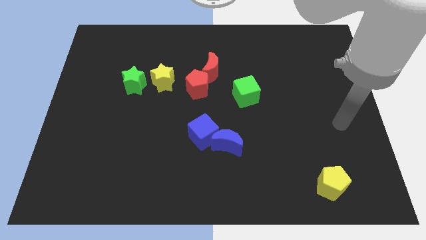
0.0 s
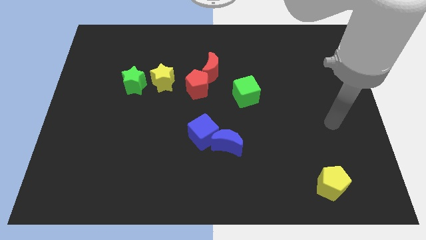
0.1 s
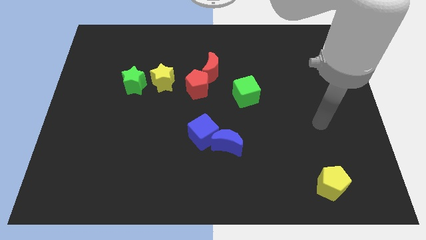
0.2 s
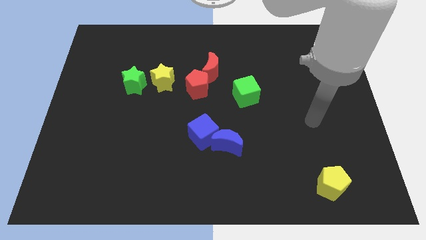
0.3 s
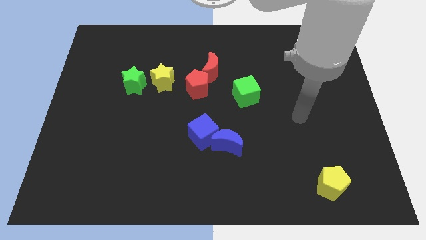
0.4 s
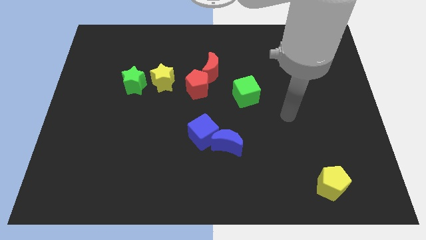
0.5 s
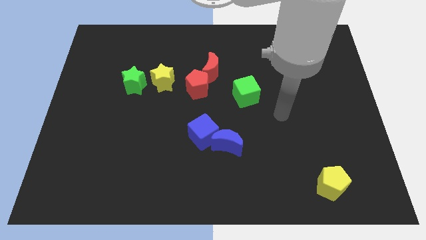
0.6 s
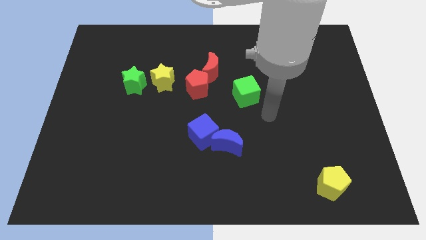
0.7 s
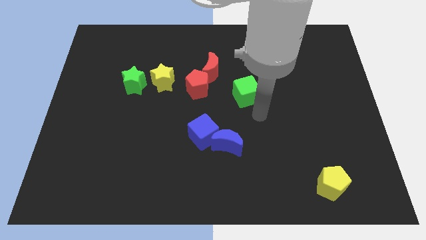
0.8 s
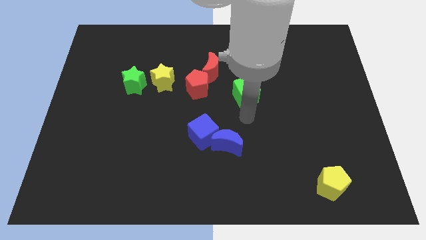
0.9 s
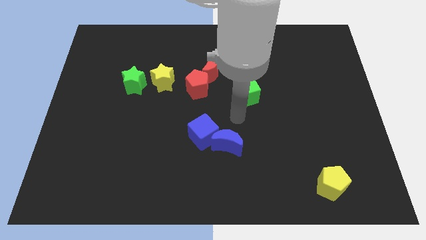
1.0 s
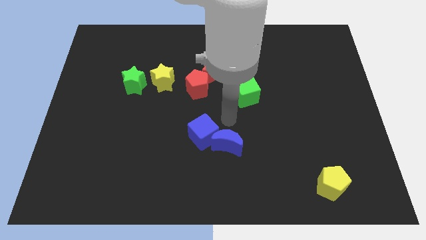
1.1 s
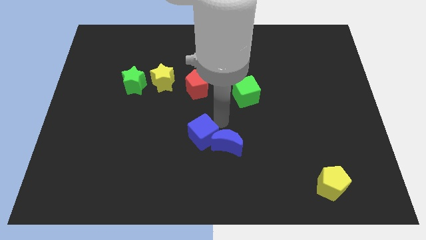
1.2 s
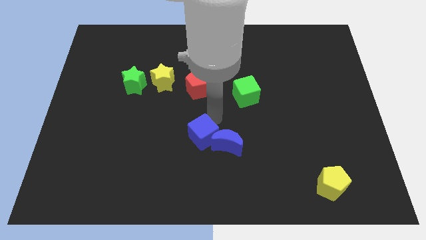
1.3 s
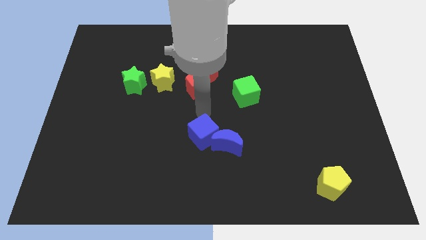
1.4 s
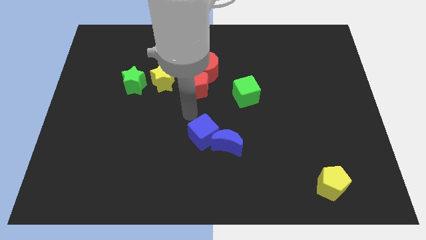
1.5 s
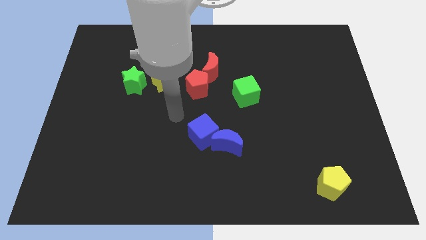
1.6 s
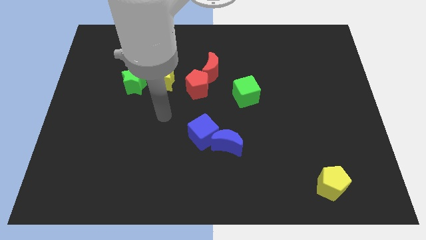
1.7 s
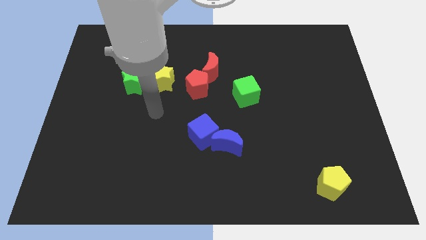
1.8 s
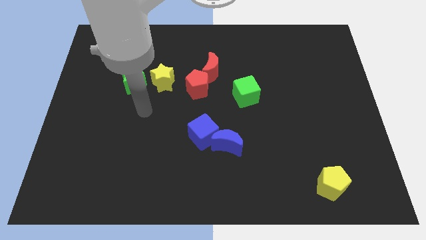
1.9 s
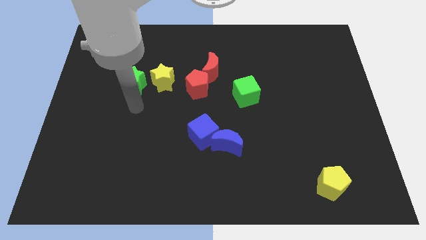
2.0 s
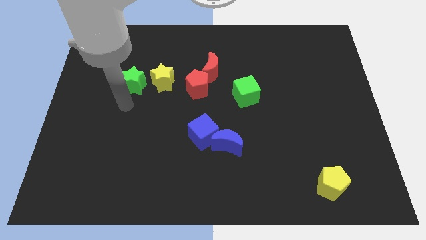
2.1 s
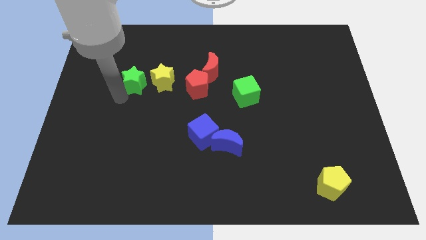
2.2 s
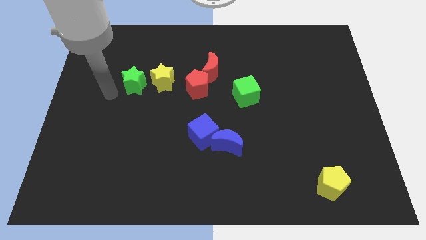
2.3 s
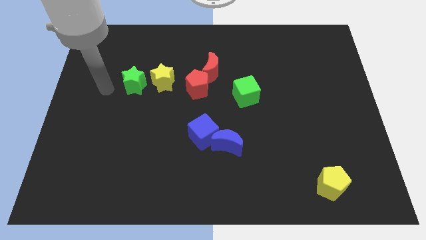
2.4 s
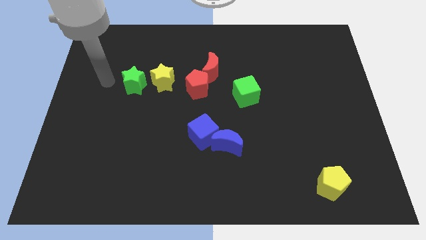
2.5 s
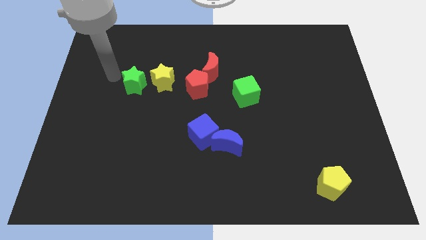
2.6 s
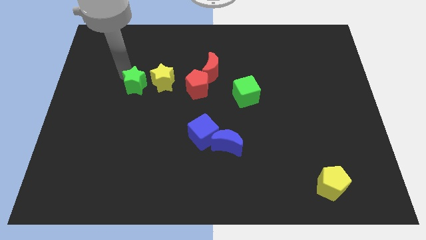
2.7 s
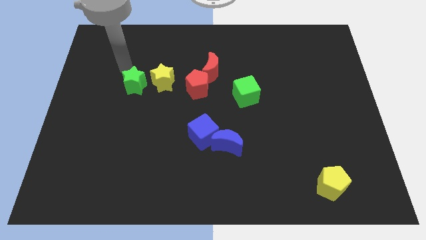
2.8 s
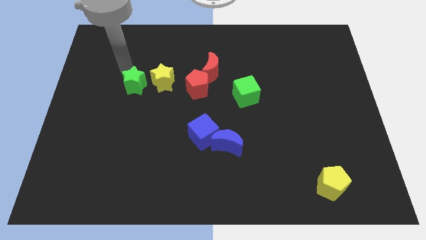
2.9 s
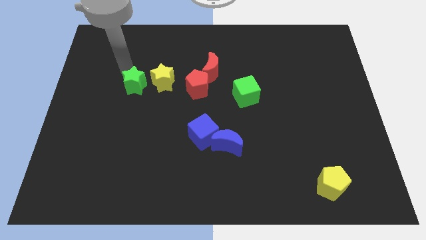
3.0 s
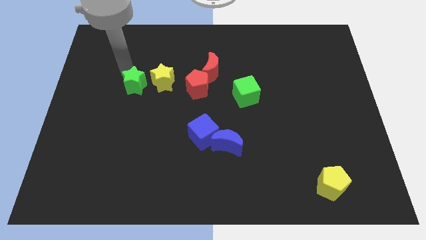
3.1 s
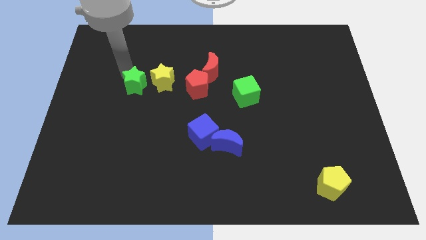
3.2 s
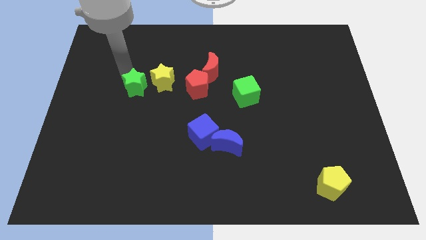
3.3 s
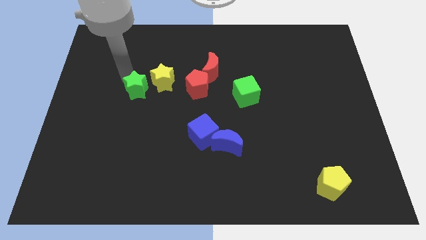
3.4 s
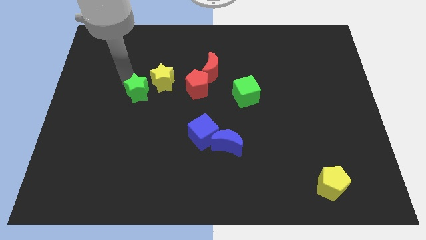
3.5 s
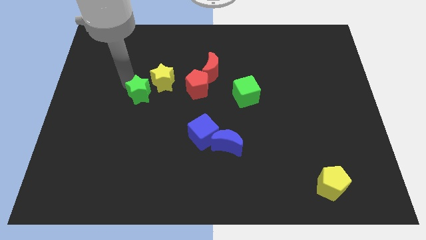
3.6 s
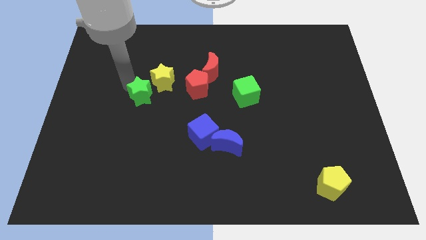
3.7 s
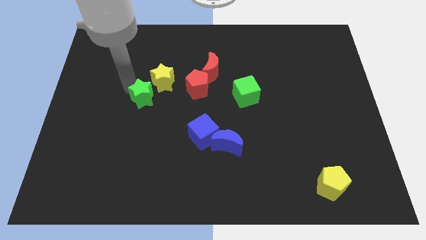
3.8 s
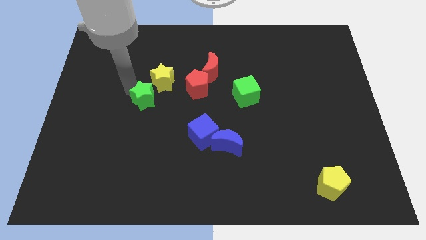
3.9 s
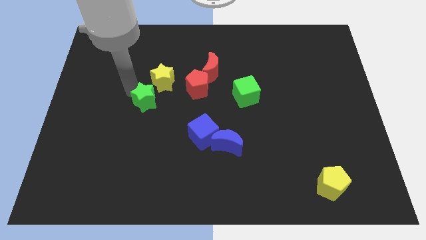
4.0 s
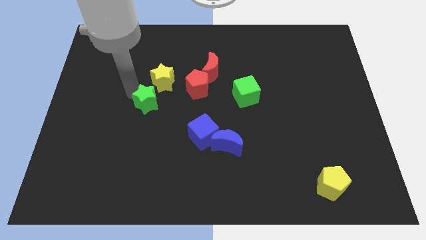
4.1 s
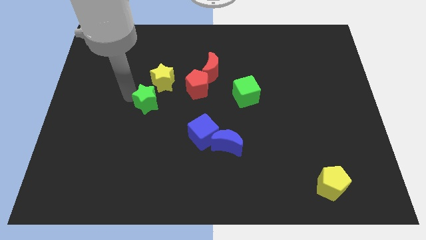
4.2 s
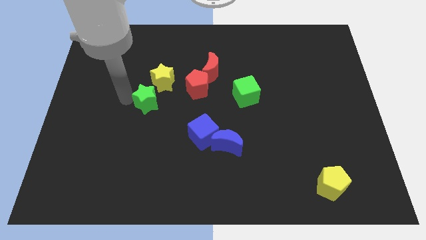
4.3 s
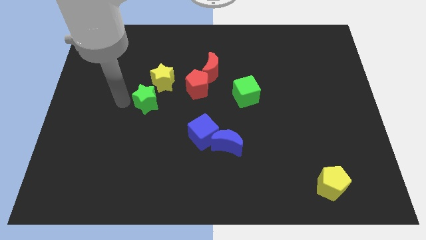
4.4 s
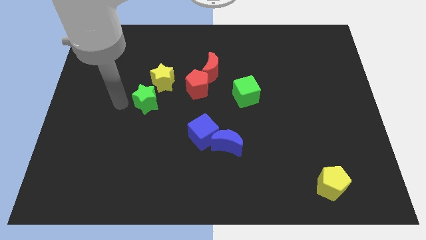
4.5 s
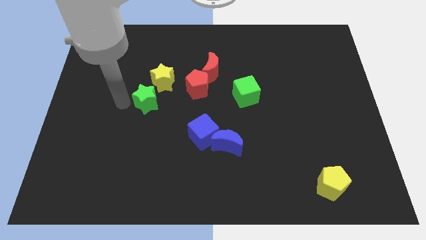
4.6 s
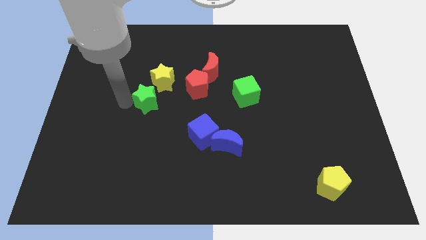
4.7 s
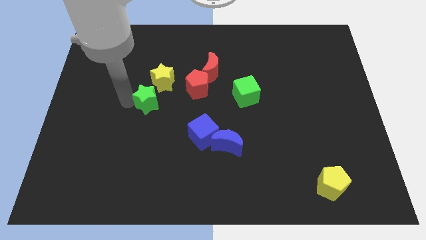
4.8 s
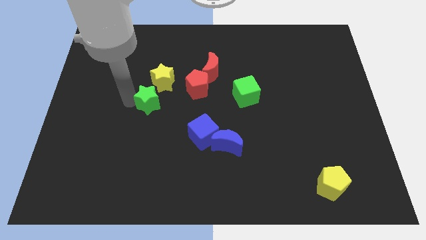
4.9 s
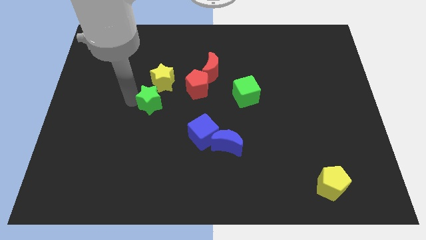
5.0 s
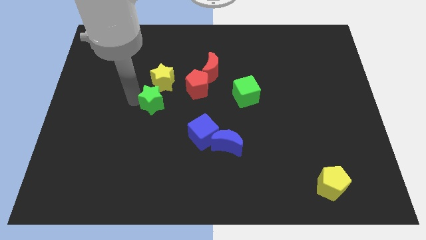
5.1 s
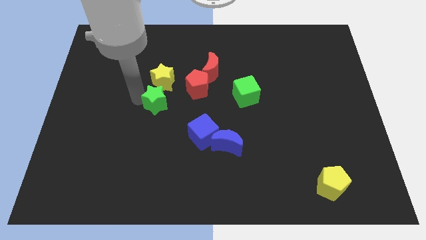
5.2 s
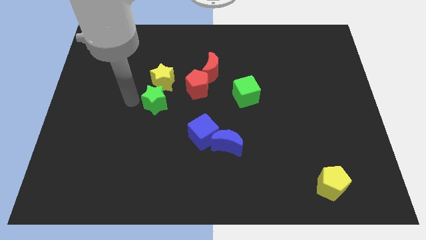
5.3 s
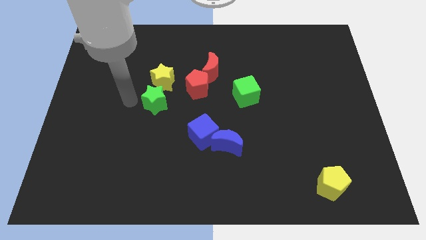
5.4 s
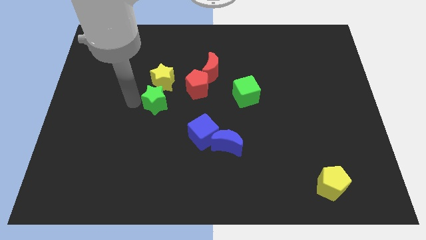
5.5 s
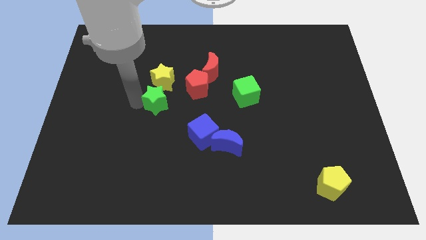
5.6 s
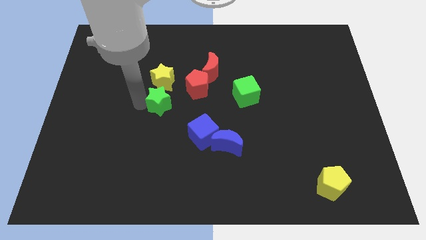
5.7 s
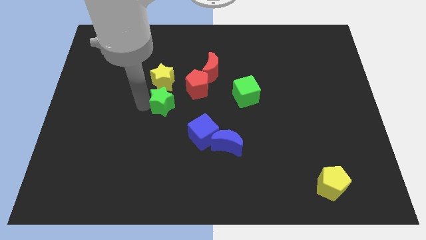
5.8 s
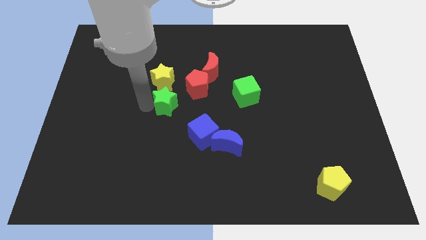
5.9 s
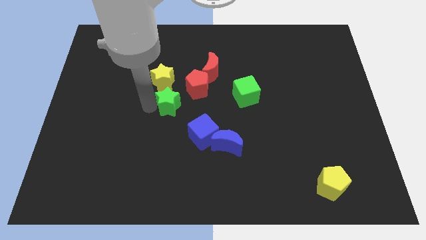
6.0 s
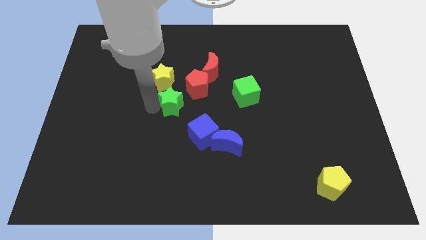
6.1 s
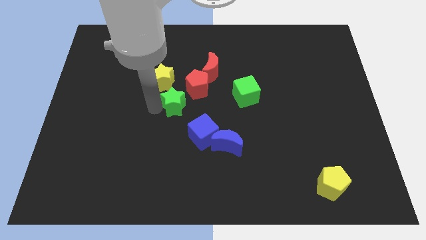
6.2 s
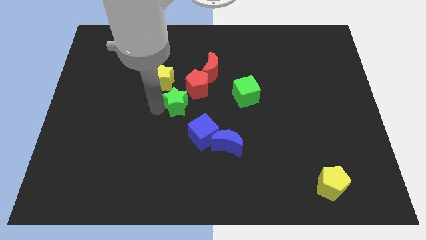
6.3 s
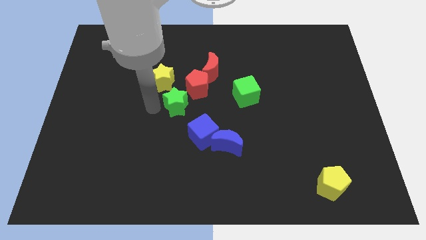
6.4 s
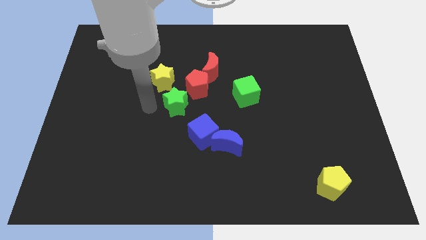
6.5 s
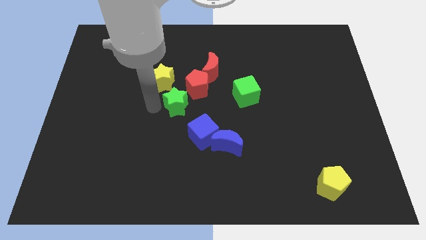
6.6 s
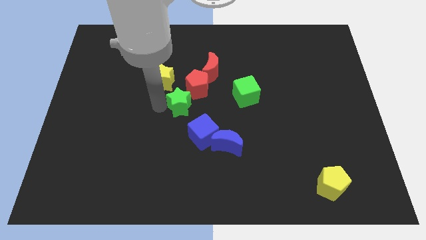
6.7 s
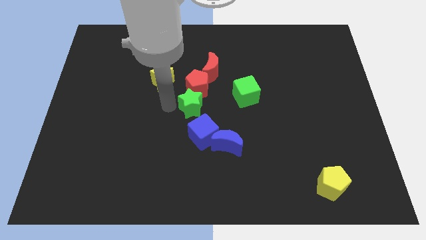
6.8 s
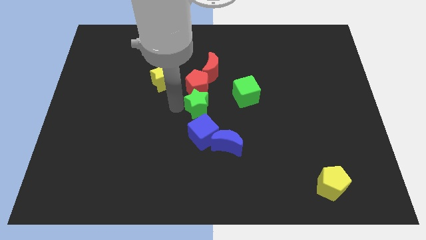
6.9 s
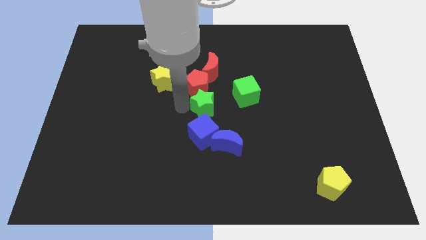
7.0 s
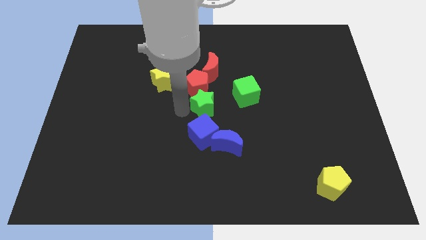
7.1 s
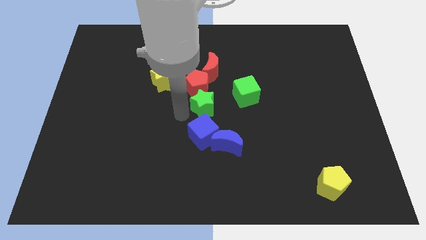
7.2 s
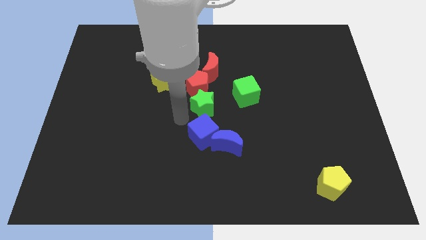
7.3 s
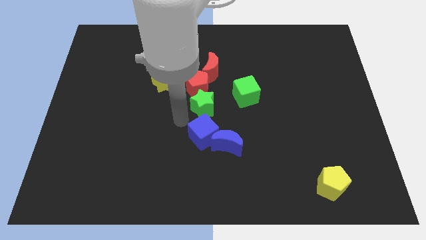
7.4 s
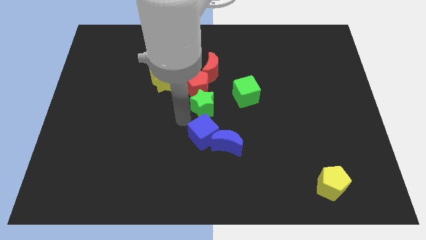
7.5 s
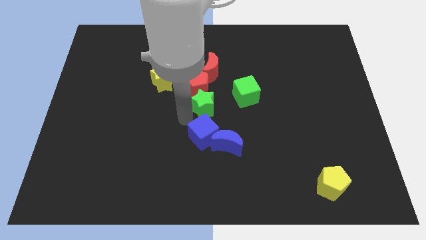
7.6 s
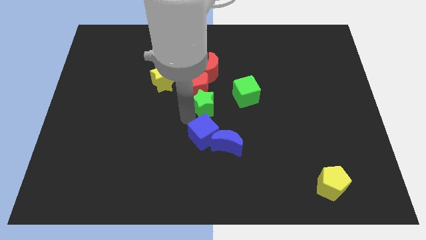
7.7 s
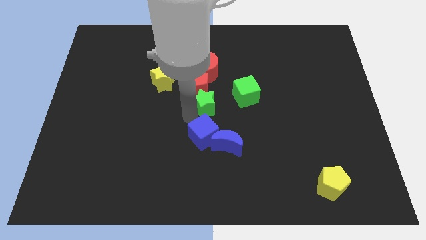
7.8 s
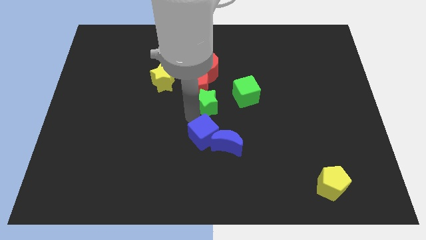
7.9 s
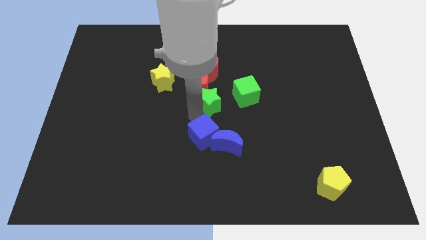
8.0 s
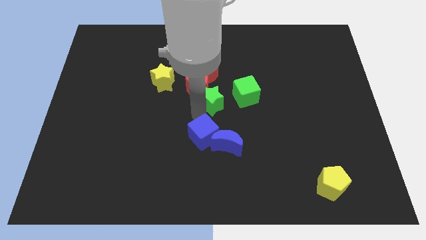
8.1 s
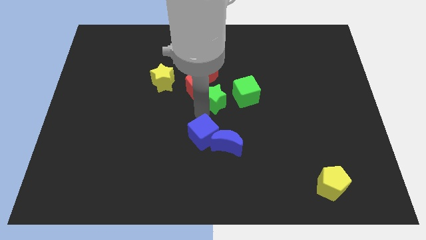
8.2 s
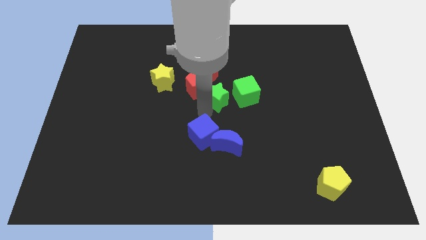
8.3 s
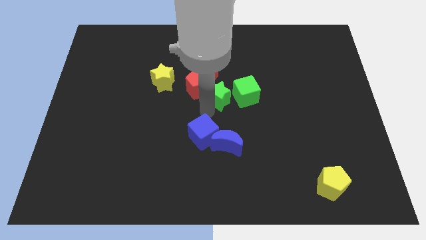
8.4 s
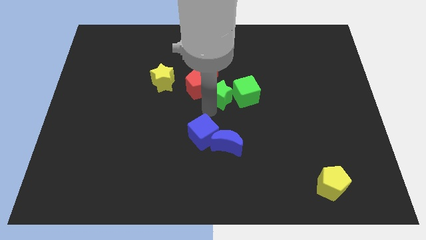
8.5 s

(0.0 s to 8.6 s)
slide the green star right
